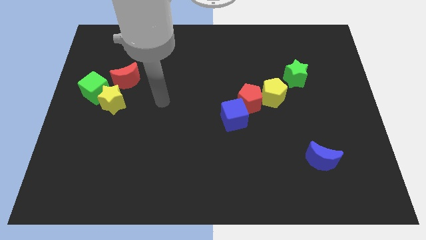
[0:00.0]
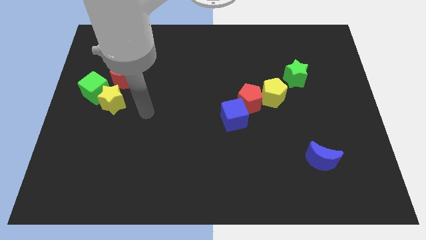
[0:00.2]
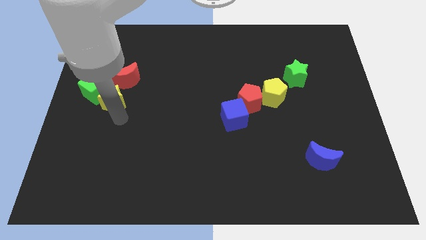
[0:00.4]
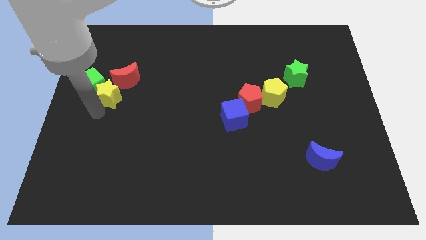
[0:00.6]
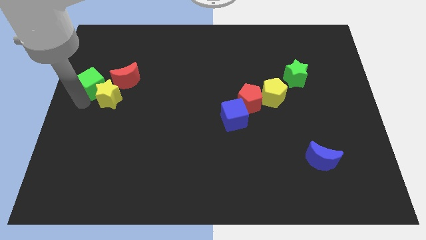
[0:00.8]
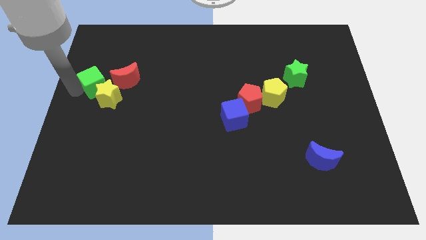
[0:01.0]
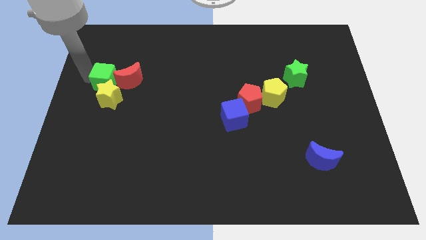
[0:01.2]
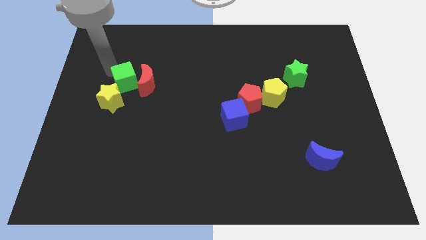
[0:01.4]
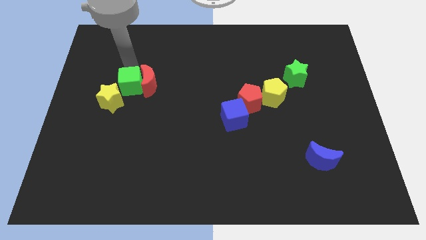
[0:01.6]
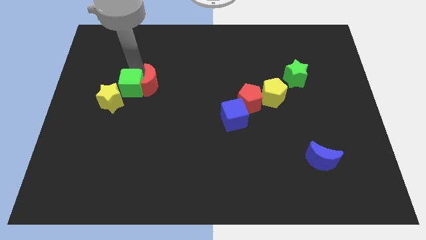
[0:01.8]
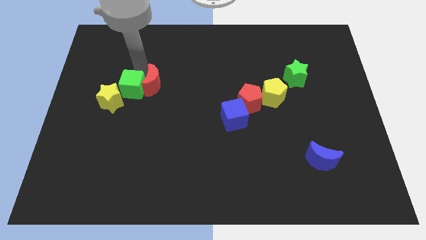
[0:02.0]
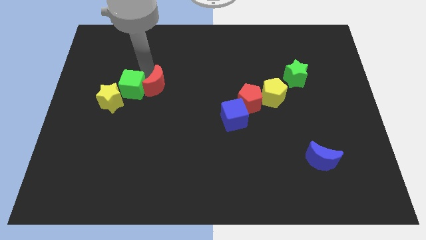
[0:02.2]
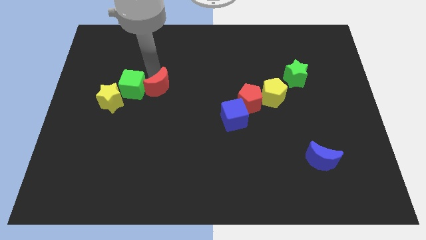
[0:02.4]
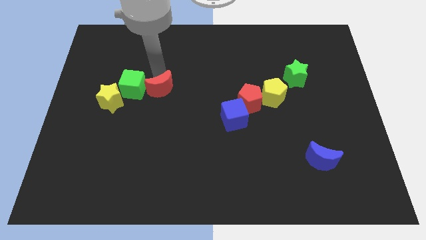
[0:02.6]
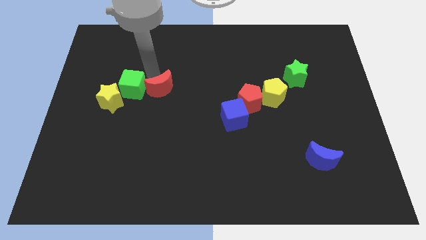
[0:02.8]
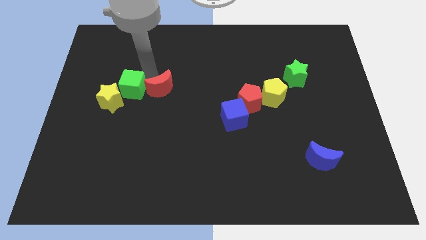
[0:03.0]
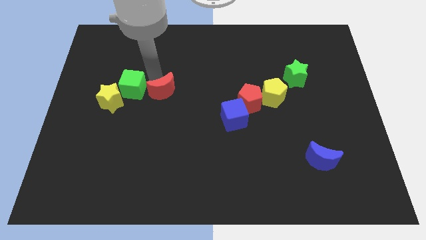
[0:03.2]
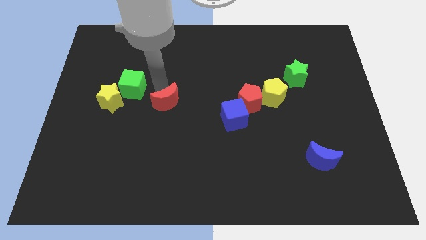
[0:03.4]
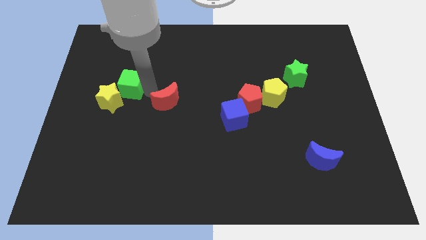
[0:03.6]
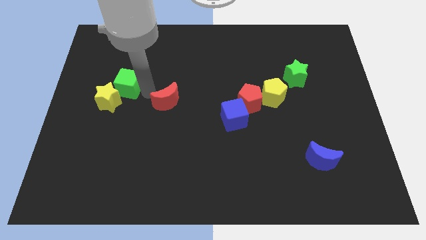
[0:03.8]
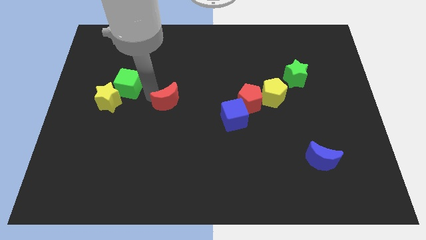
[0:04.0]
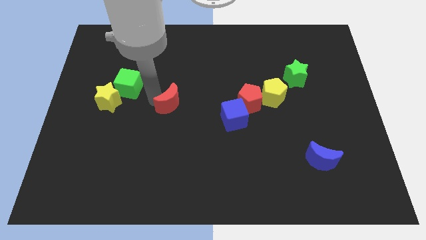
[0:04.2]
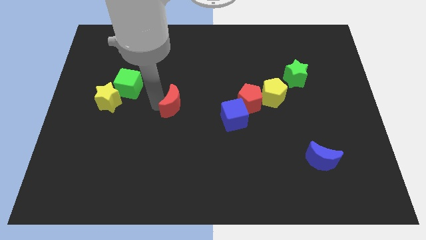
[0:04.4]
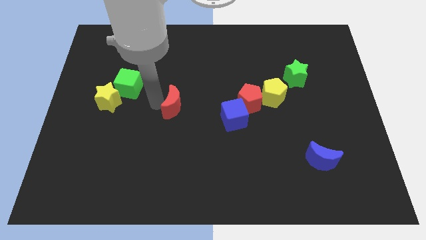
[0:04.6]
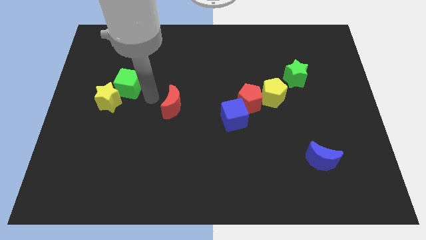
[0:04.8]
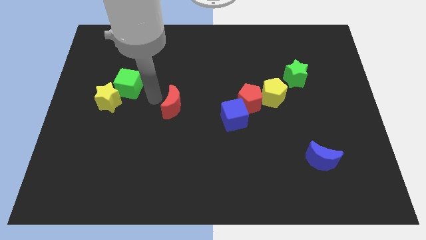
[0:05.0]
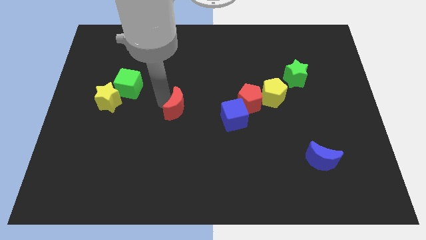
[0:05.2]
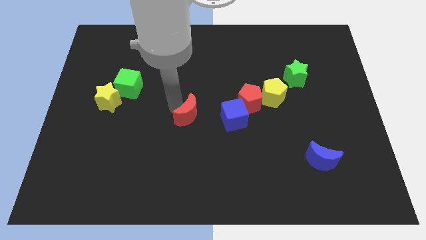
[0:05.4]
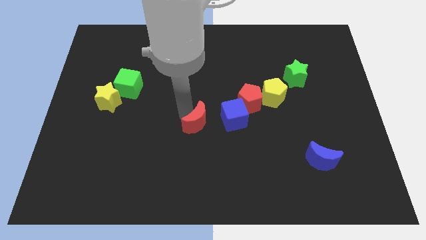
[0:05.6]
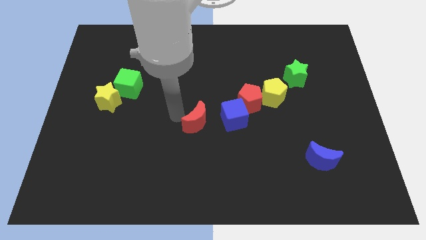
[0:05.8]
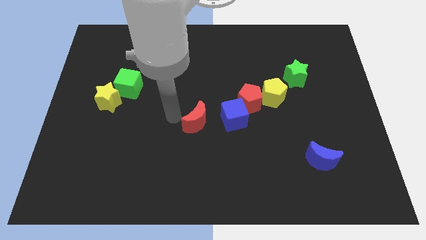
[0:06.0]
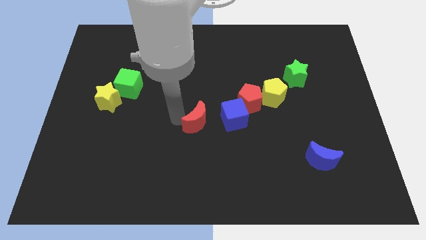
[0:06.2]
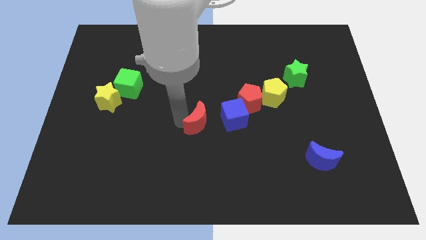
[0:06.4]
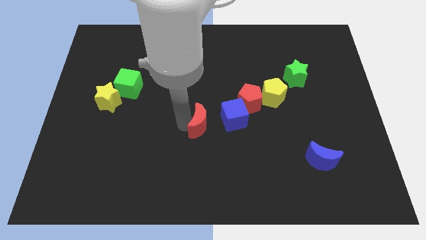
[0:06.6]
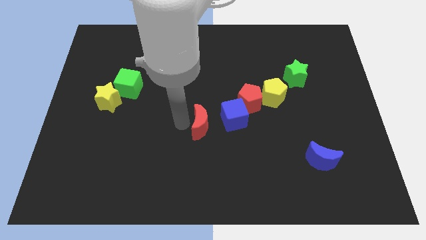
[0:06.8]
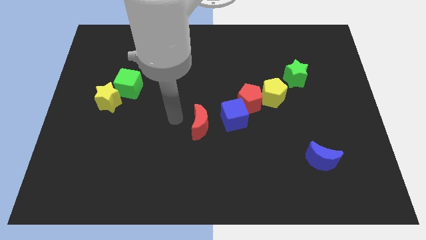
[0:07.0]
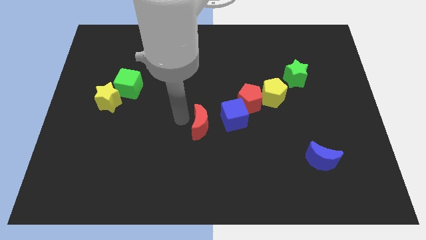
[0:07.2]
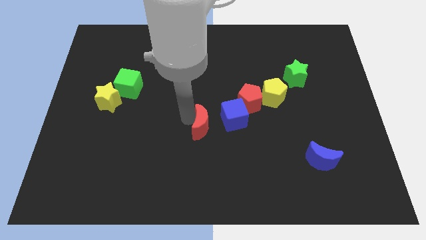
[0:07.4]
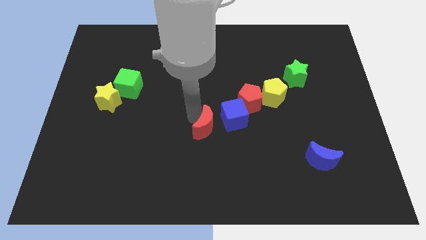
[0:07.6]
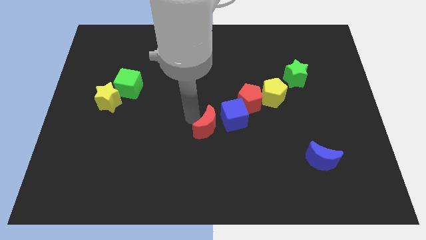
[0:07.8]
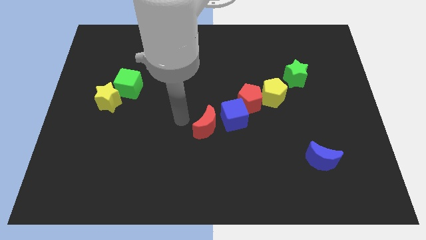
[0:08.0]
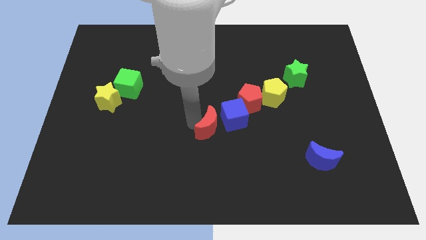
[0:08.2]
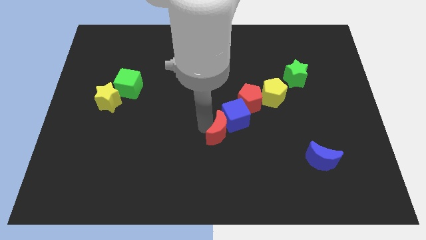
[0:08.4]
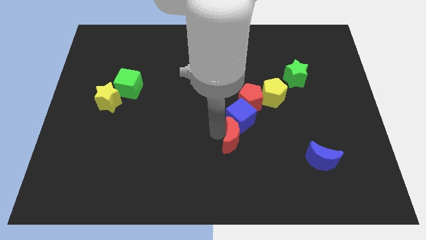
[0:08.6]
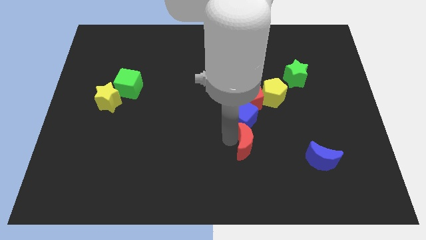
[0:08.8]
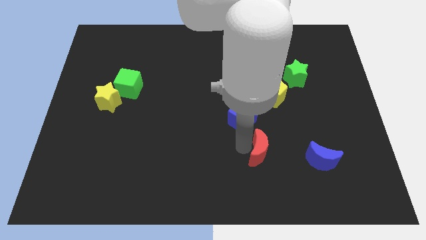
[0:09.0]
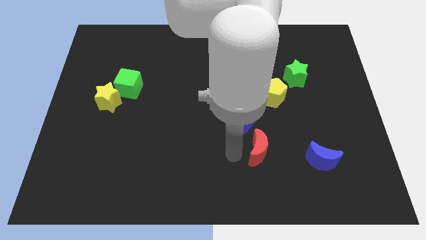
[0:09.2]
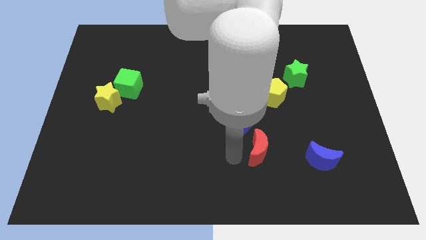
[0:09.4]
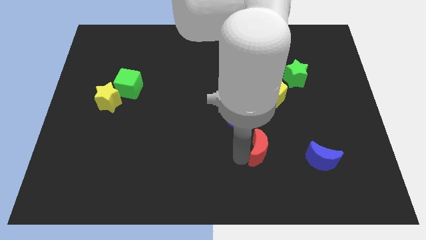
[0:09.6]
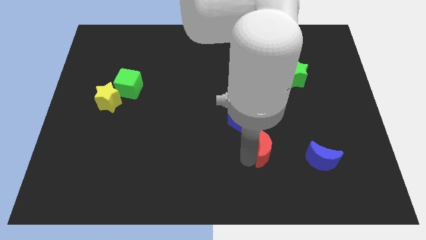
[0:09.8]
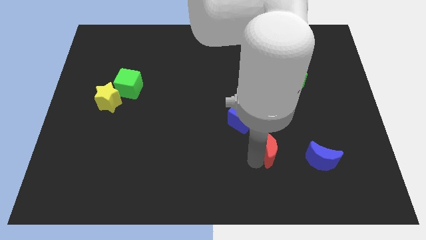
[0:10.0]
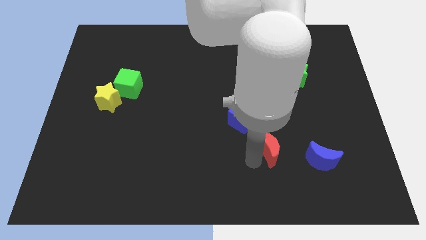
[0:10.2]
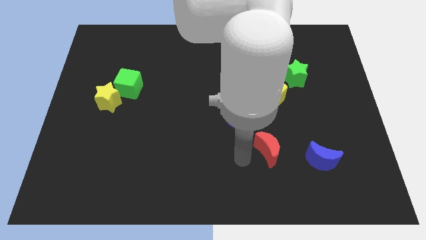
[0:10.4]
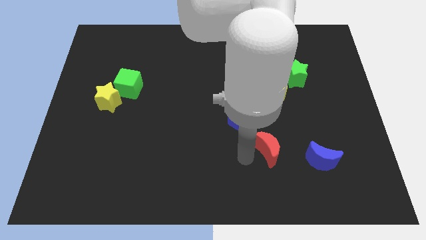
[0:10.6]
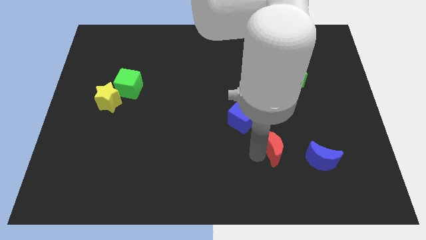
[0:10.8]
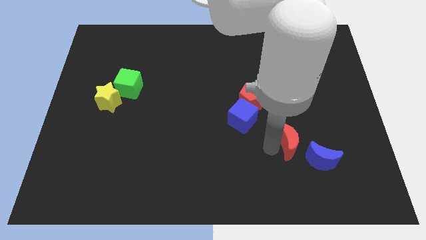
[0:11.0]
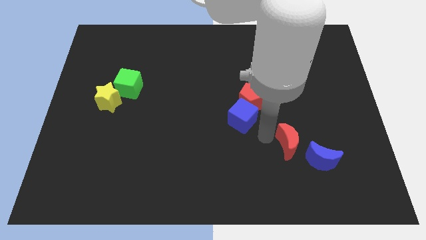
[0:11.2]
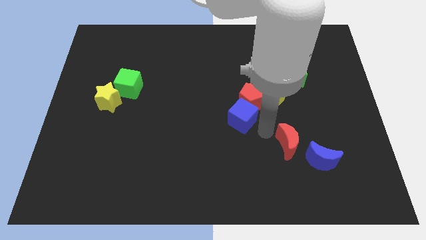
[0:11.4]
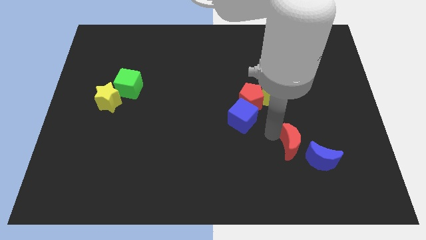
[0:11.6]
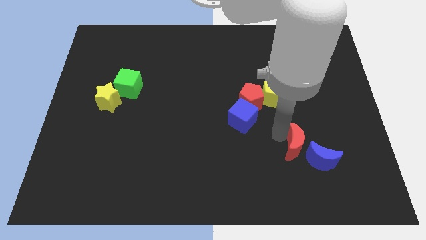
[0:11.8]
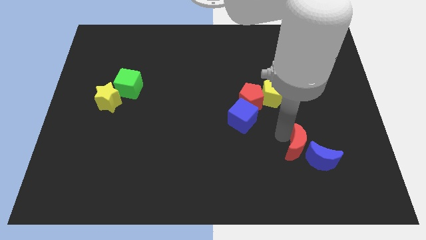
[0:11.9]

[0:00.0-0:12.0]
slide the red moon close to the blue moon

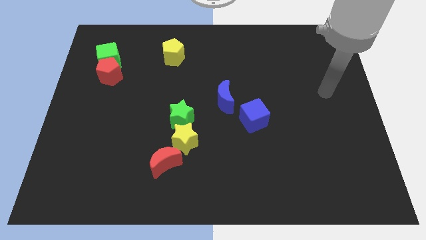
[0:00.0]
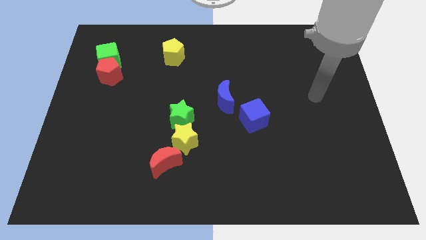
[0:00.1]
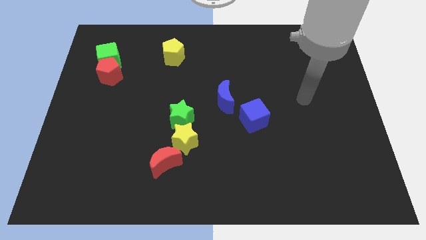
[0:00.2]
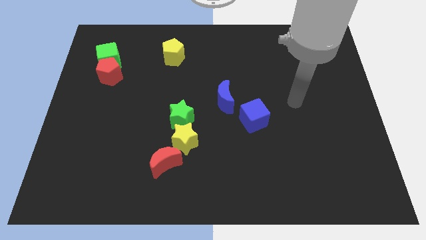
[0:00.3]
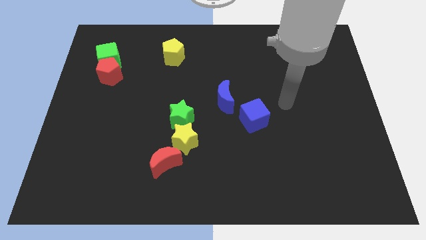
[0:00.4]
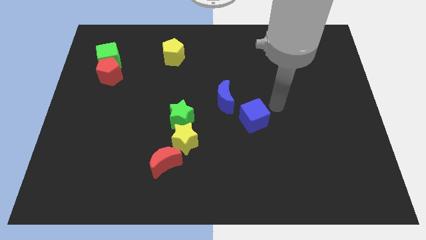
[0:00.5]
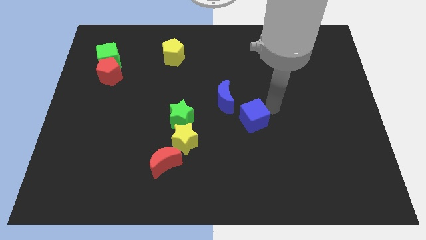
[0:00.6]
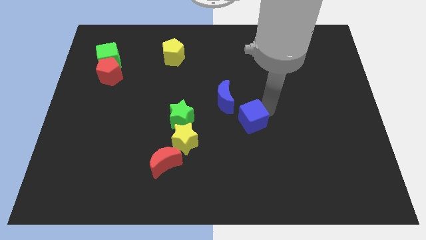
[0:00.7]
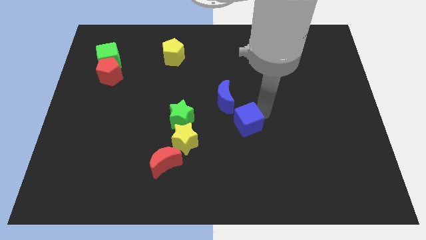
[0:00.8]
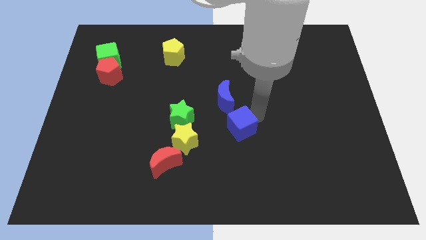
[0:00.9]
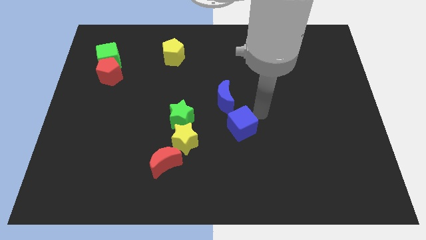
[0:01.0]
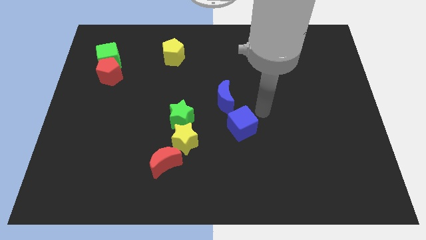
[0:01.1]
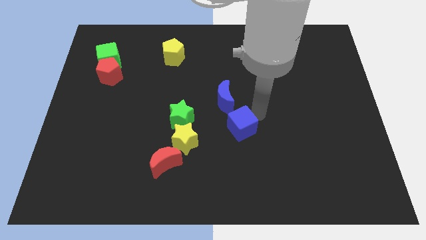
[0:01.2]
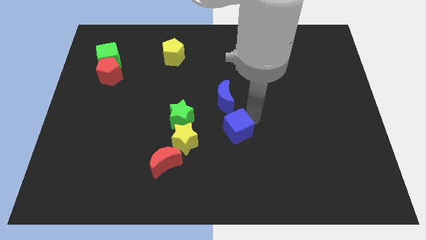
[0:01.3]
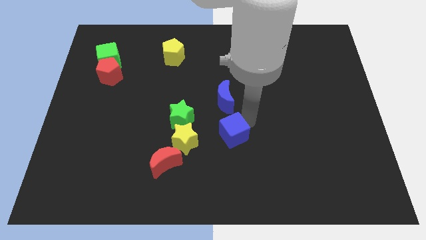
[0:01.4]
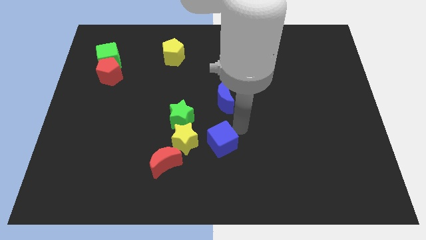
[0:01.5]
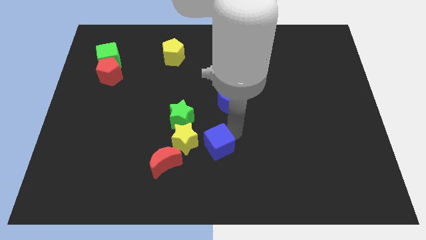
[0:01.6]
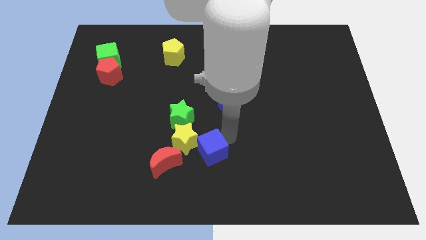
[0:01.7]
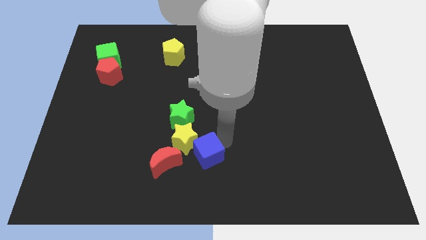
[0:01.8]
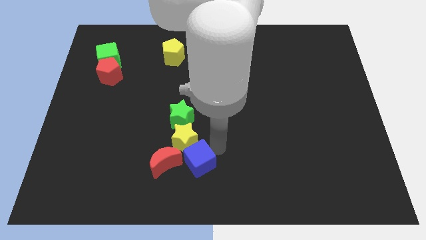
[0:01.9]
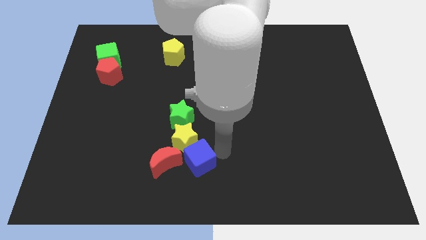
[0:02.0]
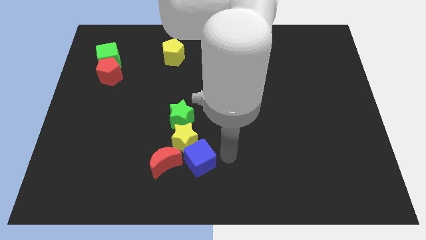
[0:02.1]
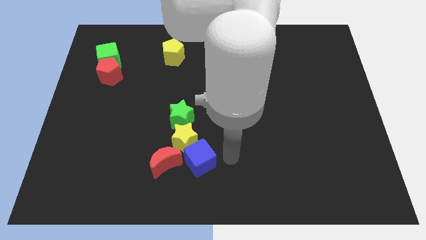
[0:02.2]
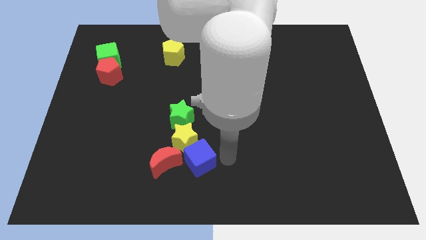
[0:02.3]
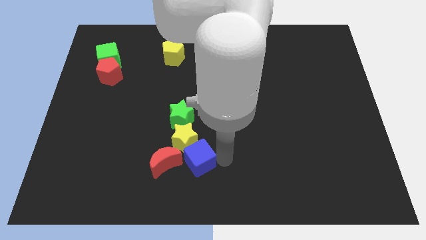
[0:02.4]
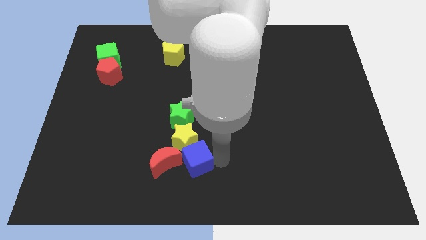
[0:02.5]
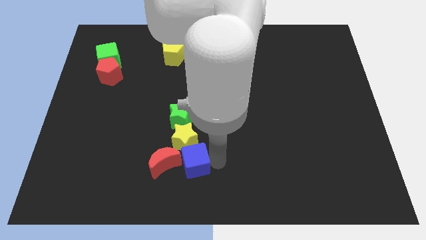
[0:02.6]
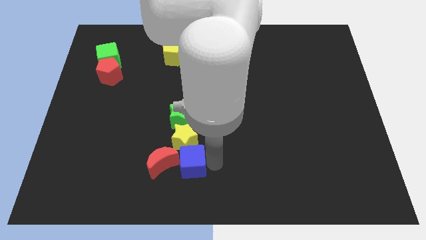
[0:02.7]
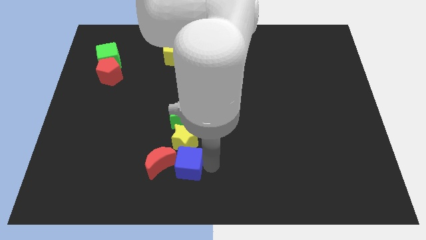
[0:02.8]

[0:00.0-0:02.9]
move the blue cube towards the red moon
